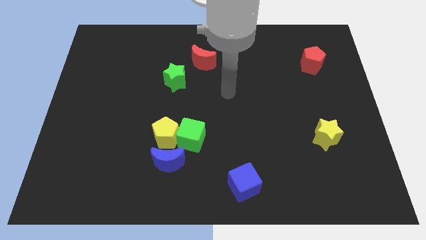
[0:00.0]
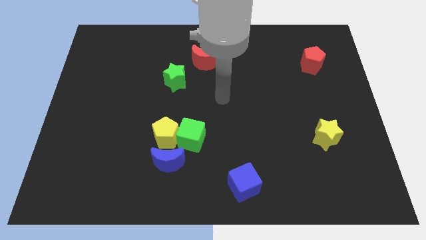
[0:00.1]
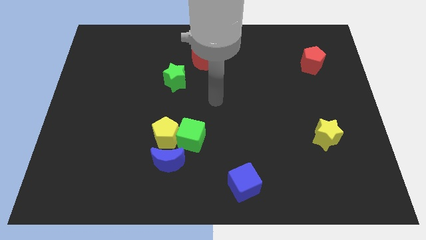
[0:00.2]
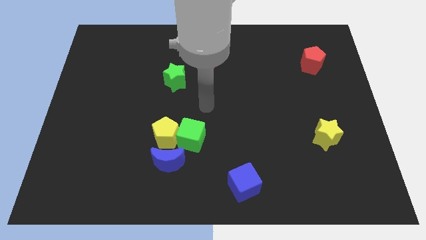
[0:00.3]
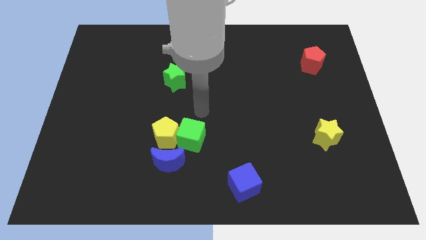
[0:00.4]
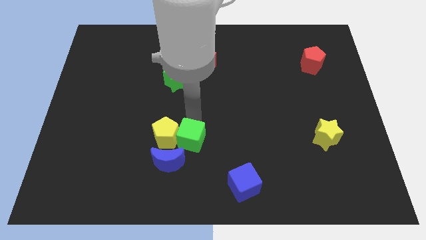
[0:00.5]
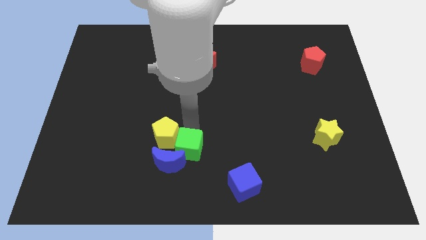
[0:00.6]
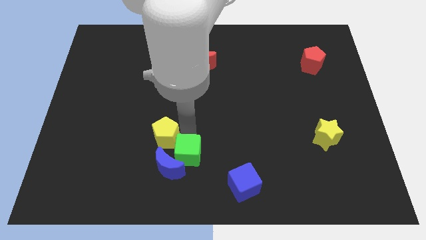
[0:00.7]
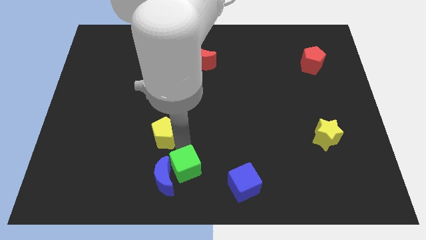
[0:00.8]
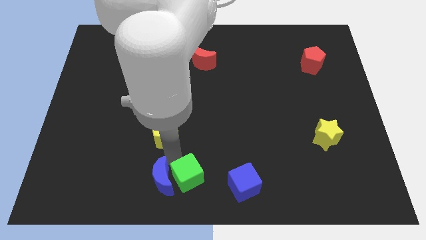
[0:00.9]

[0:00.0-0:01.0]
pull the yellow pentagon apart from the green cube and blue moon

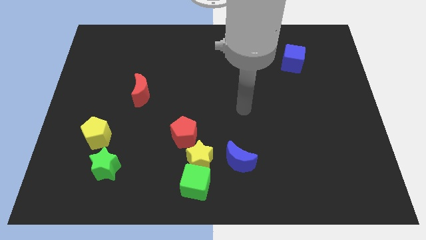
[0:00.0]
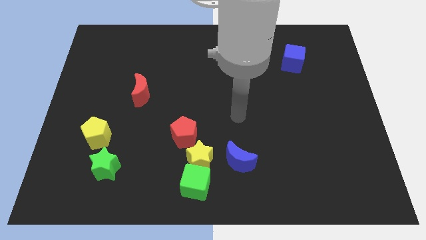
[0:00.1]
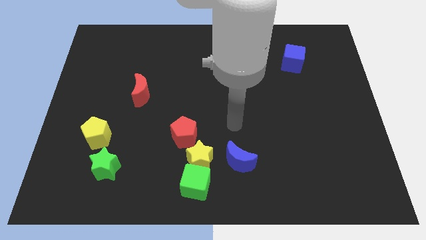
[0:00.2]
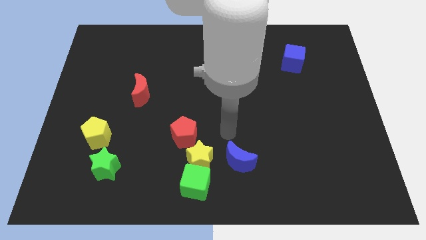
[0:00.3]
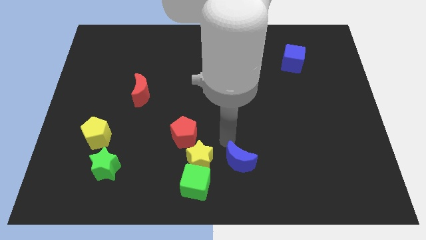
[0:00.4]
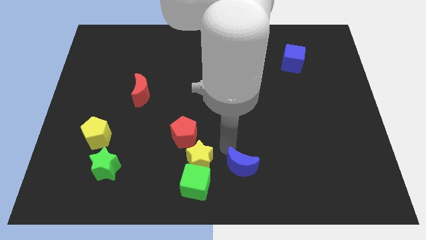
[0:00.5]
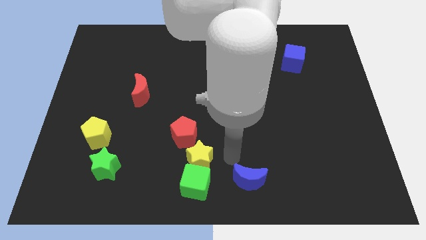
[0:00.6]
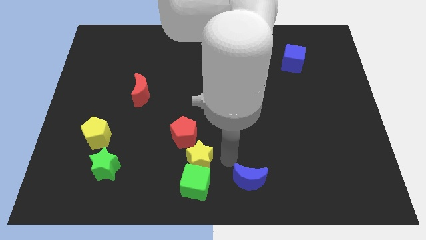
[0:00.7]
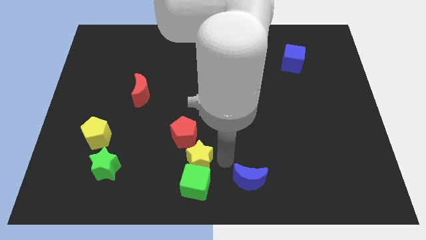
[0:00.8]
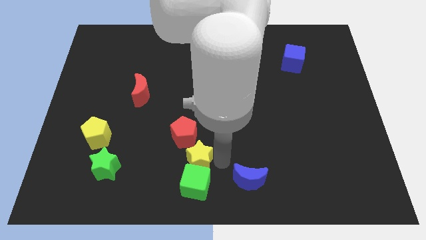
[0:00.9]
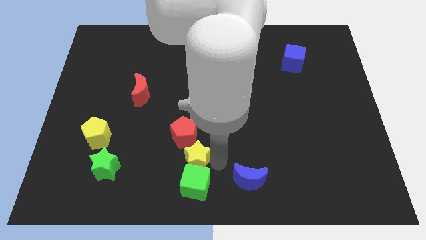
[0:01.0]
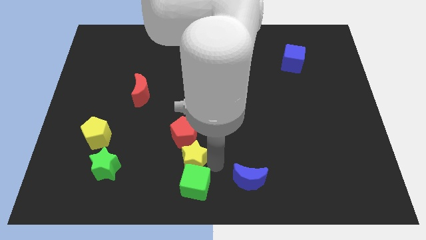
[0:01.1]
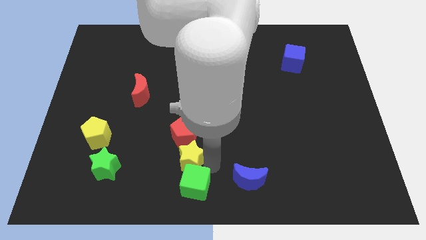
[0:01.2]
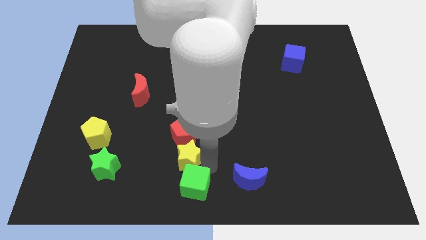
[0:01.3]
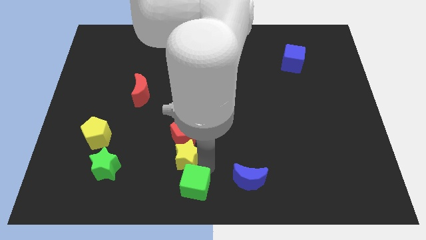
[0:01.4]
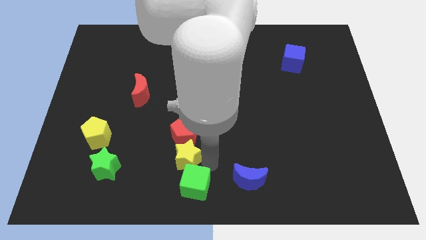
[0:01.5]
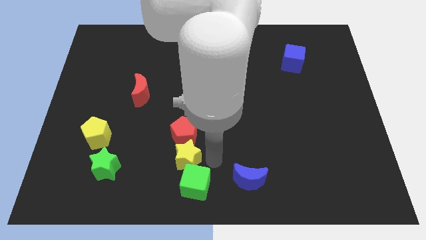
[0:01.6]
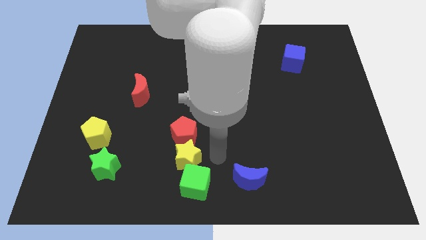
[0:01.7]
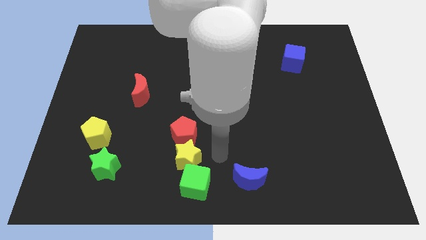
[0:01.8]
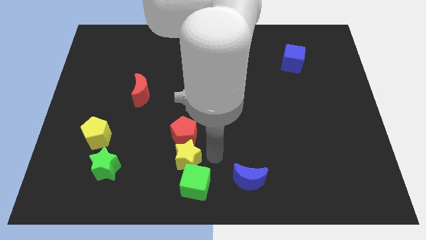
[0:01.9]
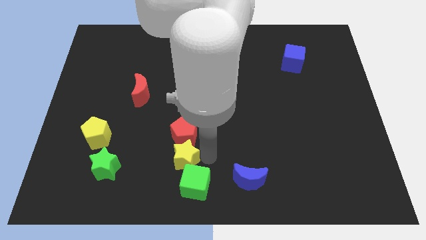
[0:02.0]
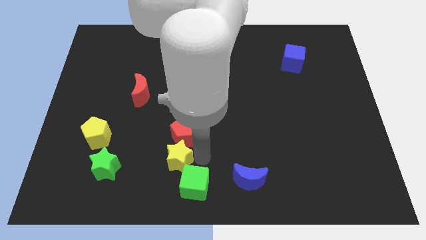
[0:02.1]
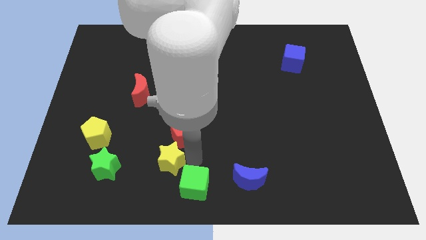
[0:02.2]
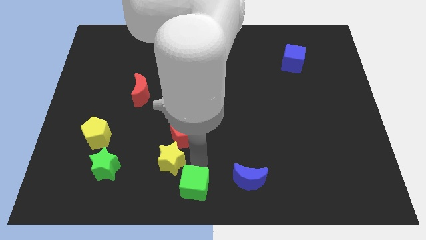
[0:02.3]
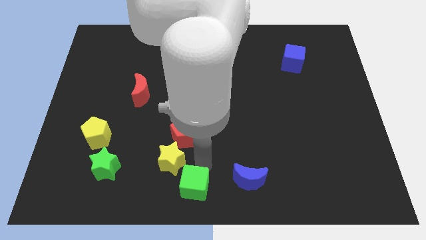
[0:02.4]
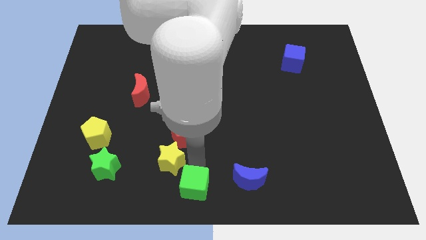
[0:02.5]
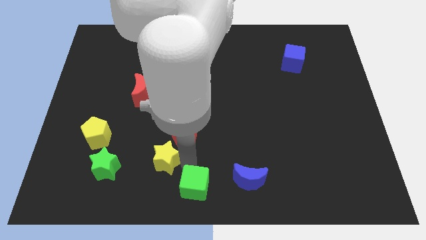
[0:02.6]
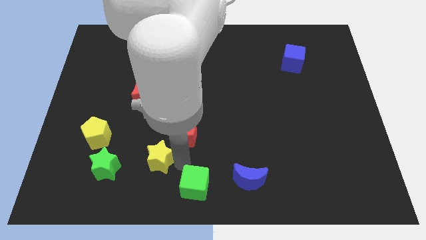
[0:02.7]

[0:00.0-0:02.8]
separate the yellow star from the clump

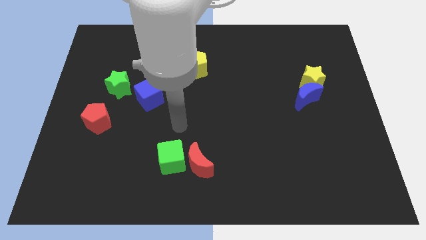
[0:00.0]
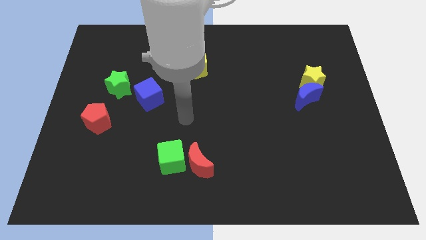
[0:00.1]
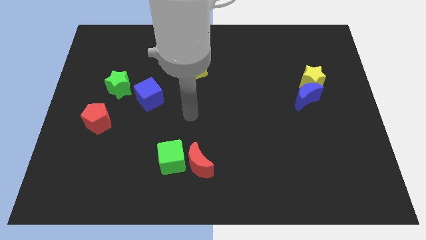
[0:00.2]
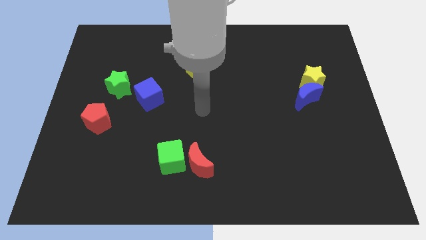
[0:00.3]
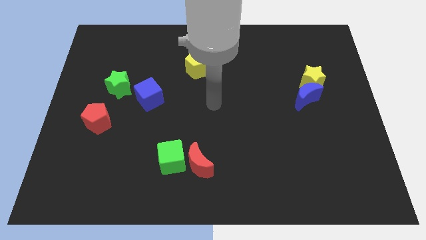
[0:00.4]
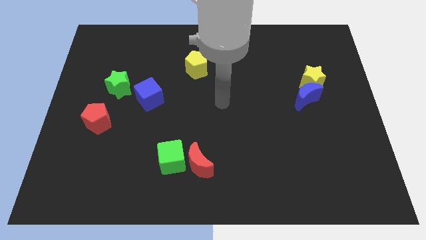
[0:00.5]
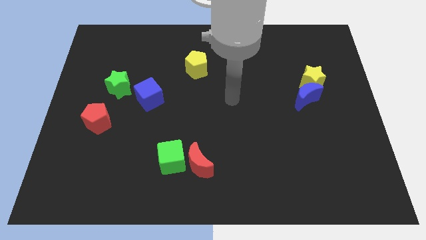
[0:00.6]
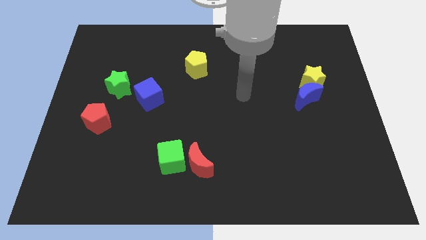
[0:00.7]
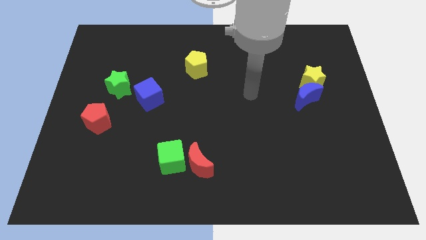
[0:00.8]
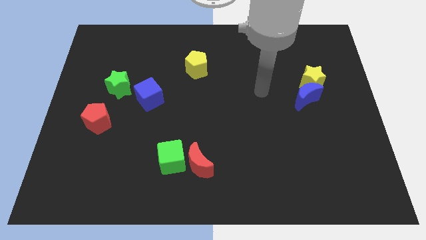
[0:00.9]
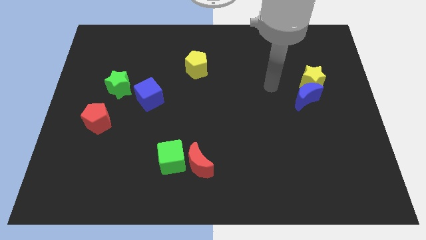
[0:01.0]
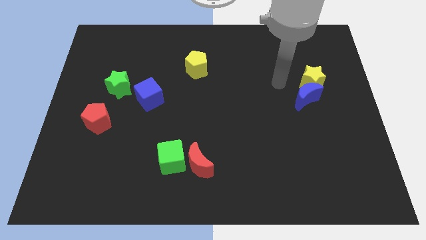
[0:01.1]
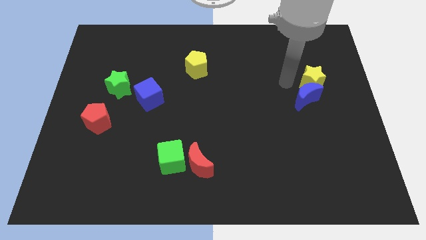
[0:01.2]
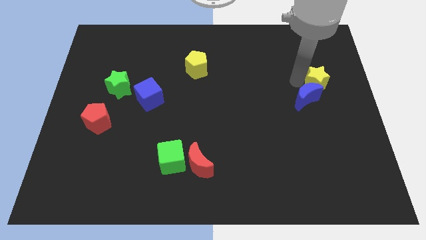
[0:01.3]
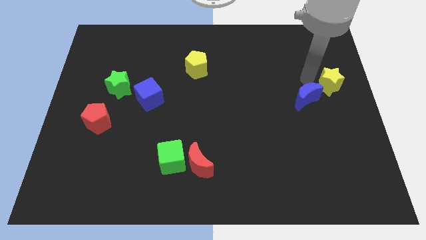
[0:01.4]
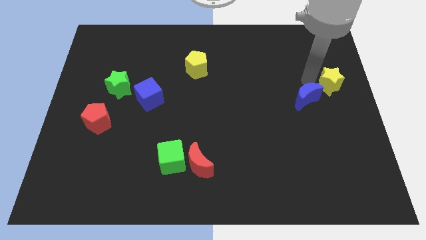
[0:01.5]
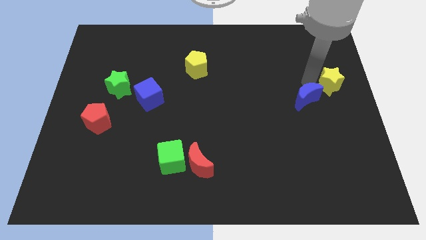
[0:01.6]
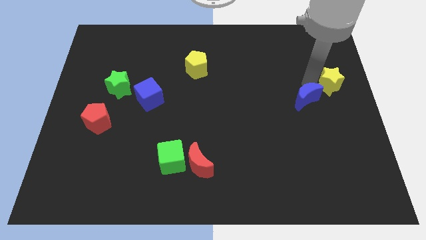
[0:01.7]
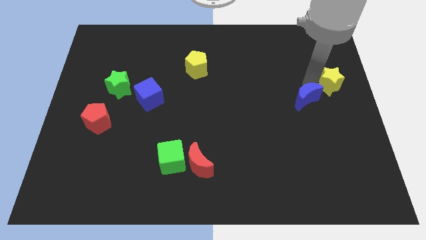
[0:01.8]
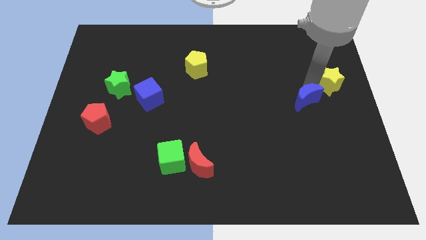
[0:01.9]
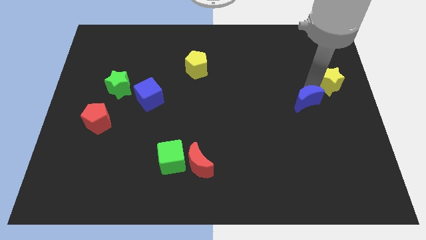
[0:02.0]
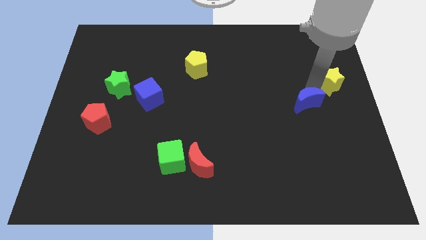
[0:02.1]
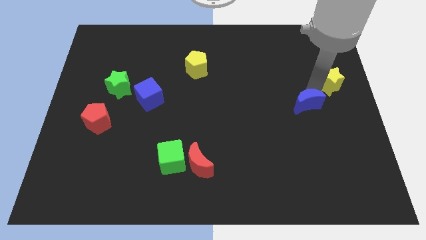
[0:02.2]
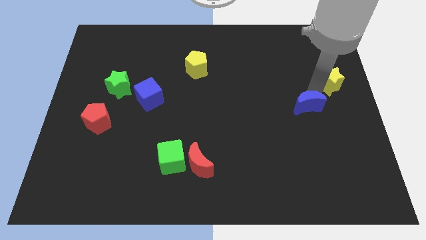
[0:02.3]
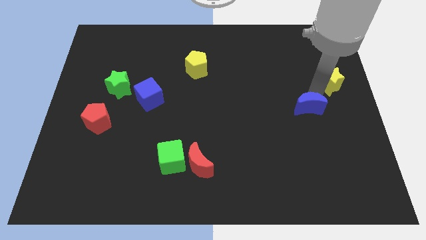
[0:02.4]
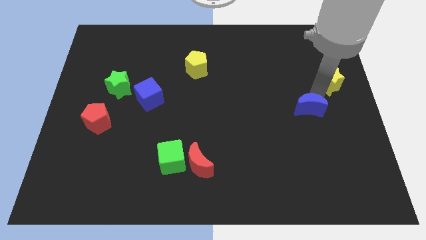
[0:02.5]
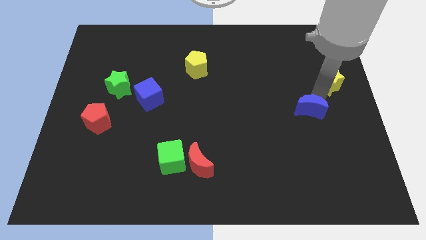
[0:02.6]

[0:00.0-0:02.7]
move the blue moon away from the yellow star

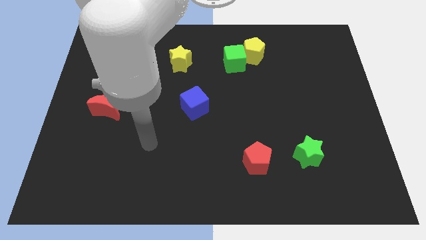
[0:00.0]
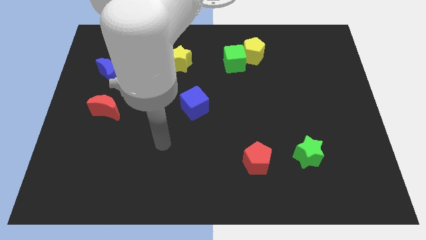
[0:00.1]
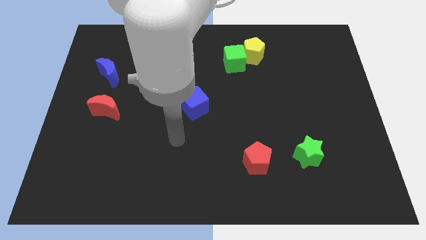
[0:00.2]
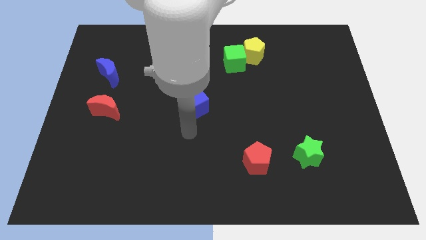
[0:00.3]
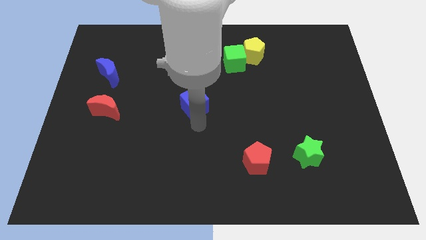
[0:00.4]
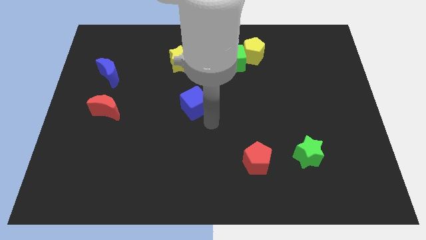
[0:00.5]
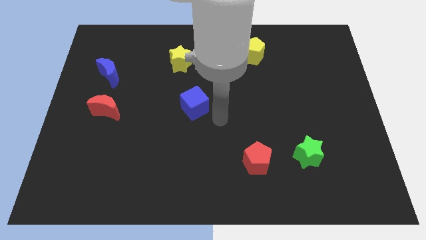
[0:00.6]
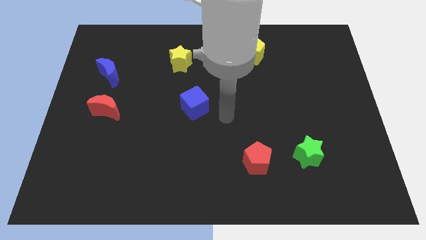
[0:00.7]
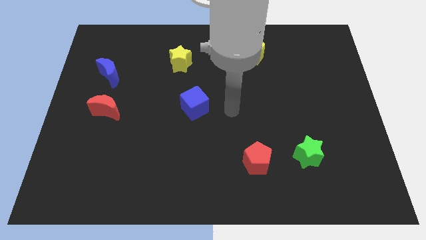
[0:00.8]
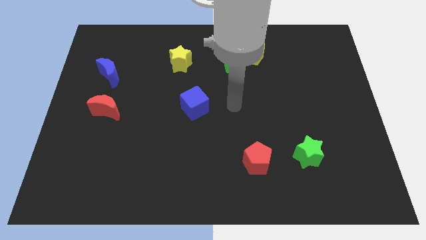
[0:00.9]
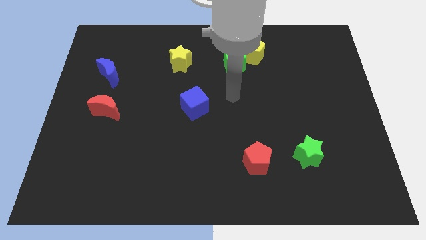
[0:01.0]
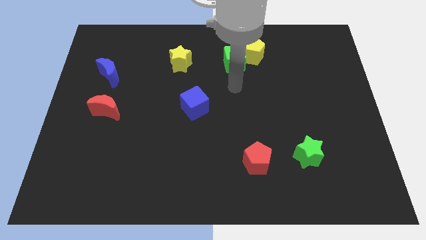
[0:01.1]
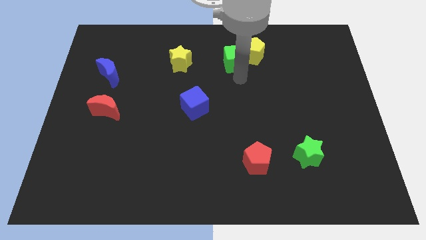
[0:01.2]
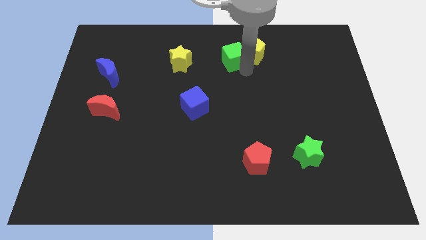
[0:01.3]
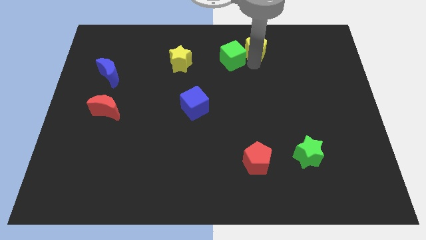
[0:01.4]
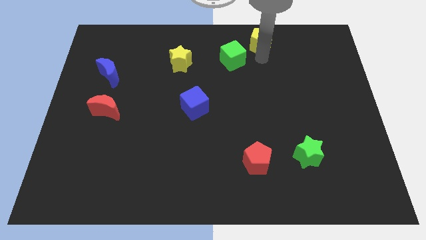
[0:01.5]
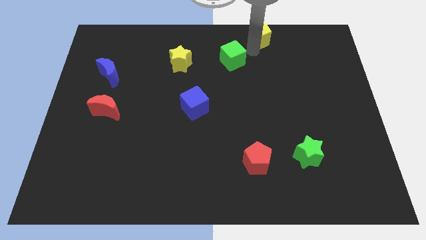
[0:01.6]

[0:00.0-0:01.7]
separate the green cube from the yellow pentagon

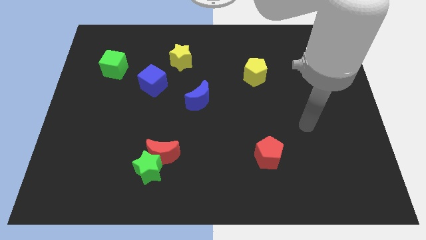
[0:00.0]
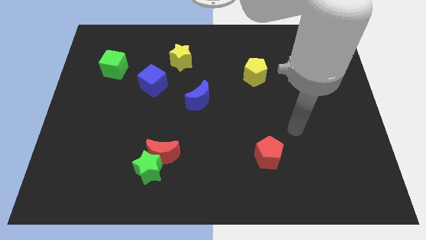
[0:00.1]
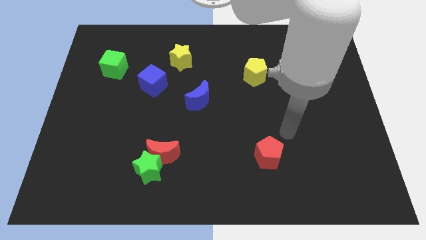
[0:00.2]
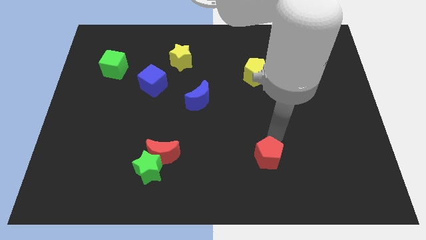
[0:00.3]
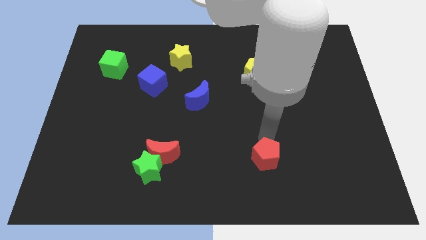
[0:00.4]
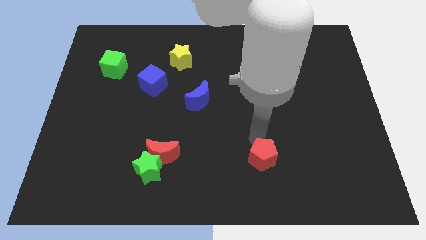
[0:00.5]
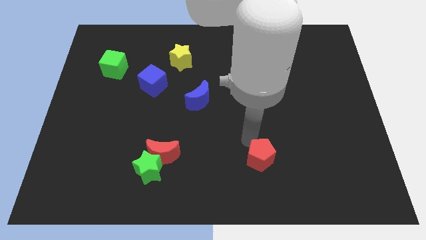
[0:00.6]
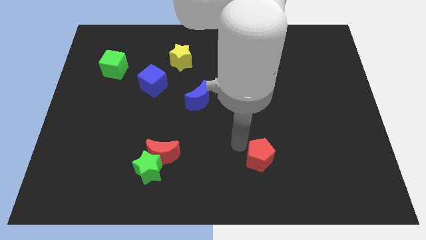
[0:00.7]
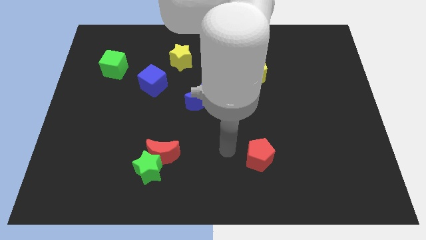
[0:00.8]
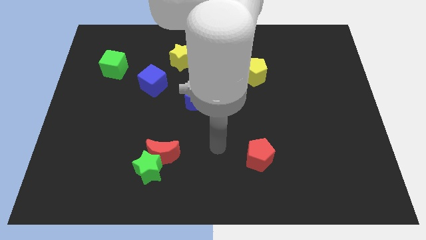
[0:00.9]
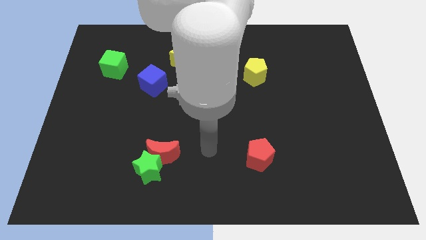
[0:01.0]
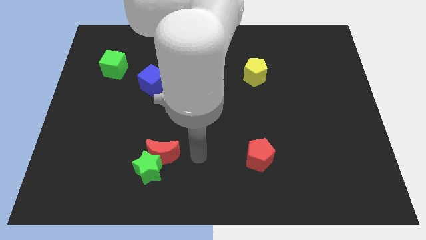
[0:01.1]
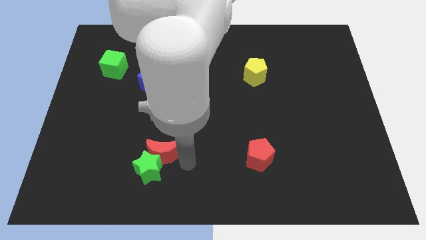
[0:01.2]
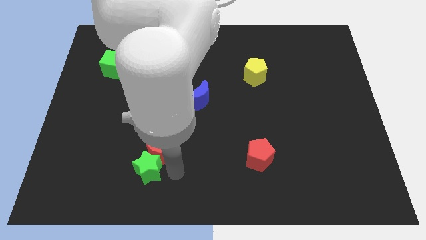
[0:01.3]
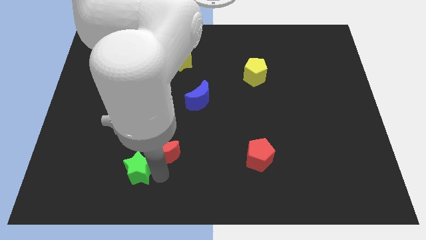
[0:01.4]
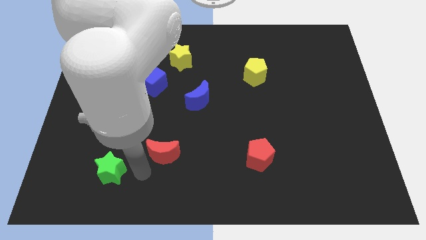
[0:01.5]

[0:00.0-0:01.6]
separate the red moon from the green star
